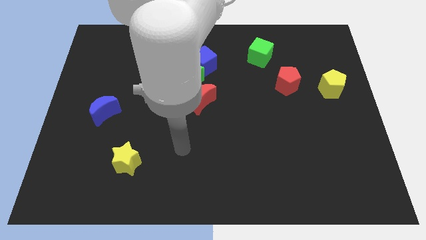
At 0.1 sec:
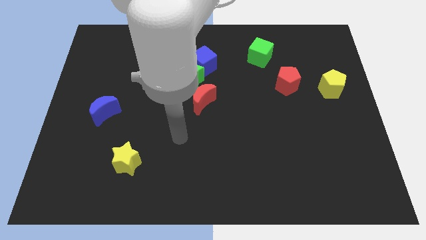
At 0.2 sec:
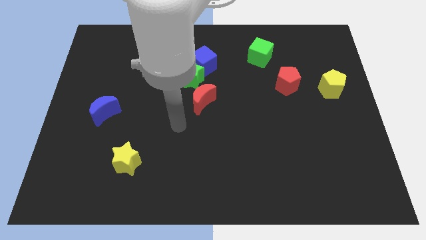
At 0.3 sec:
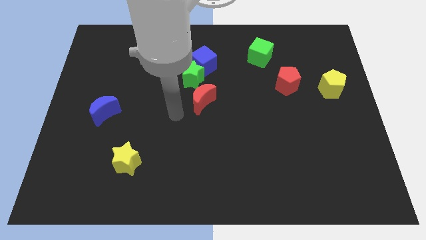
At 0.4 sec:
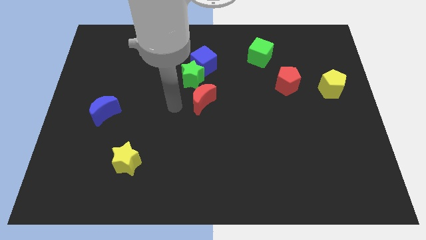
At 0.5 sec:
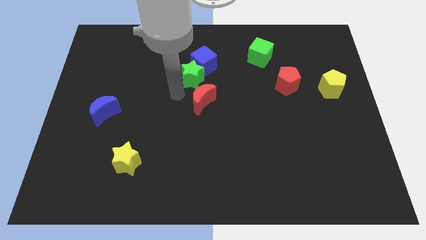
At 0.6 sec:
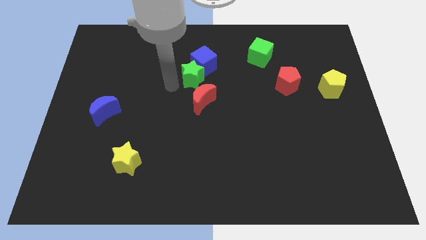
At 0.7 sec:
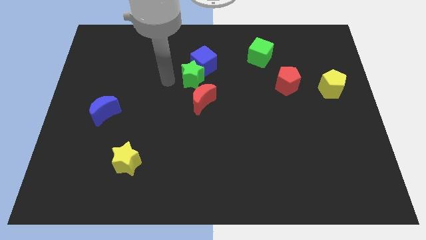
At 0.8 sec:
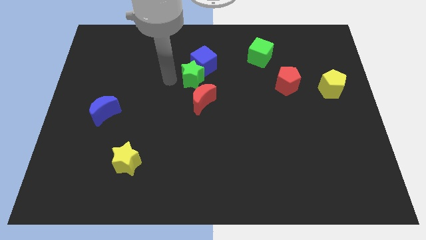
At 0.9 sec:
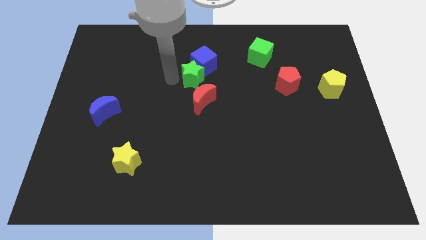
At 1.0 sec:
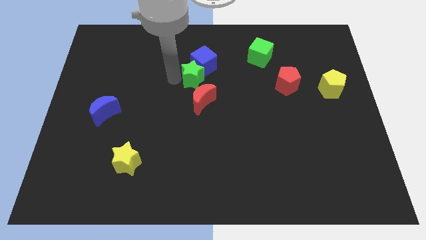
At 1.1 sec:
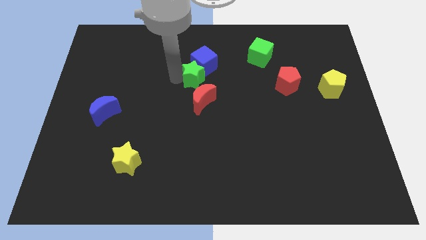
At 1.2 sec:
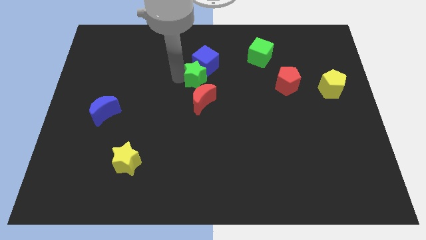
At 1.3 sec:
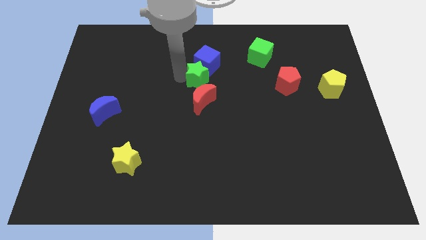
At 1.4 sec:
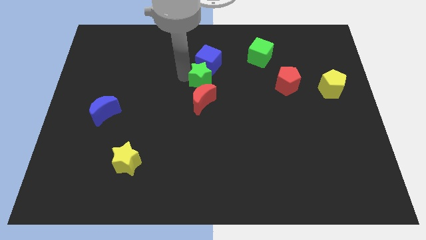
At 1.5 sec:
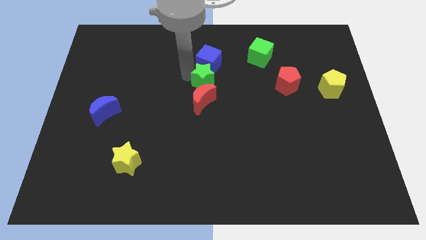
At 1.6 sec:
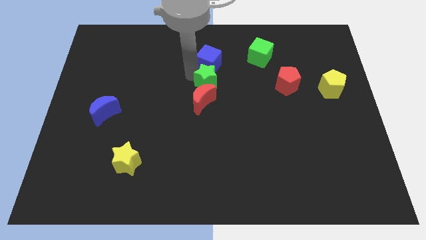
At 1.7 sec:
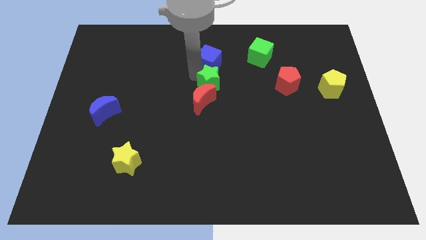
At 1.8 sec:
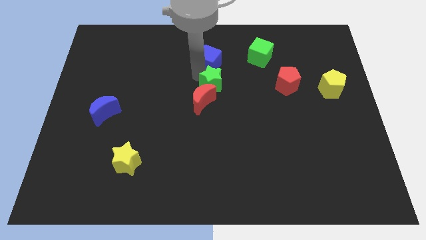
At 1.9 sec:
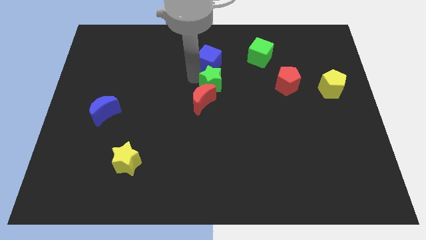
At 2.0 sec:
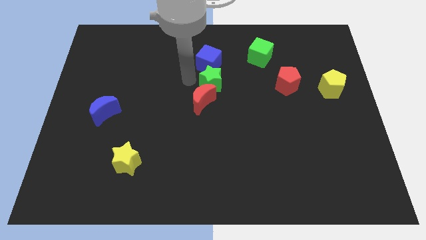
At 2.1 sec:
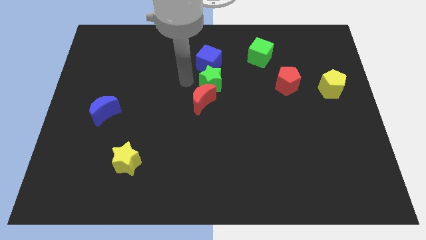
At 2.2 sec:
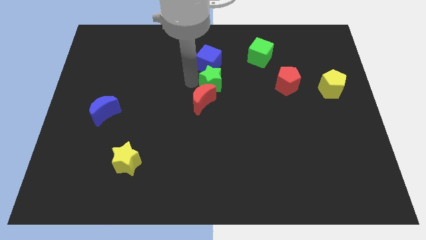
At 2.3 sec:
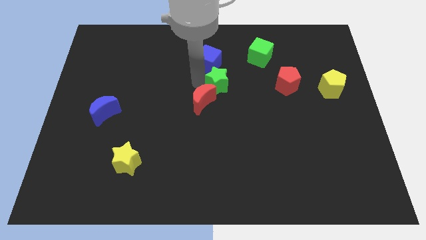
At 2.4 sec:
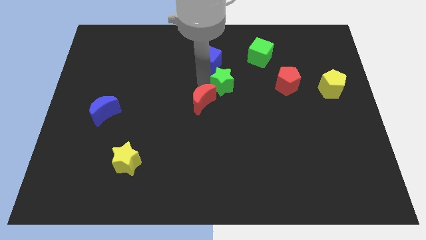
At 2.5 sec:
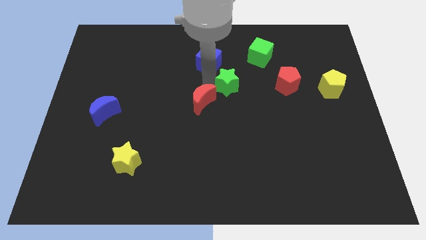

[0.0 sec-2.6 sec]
slightly push the green star downwards and then right

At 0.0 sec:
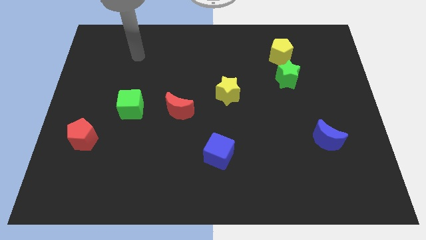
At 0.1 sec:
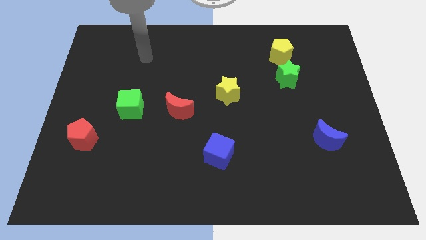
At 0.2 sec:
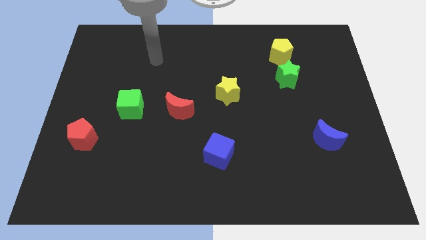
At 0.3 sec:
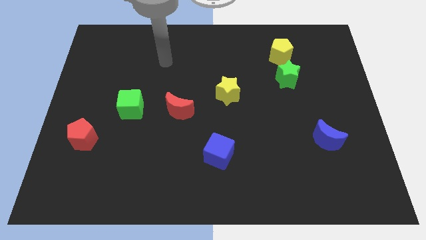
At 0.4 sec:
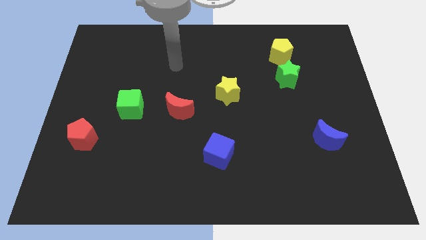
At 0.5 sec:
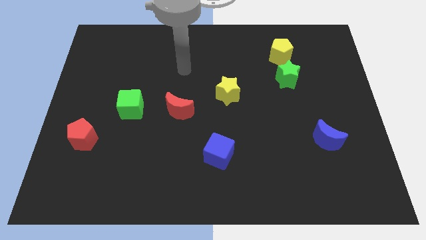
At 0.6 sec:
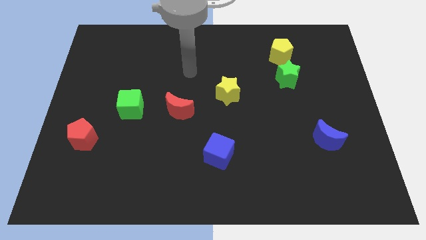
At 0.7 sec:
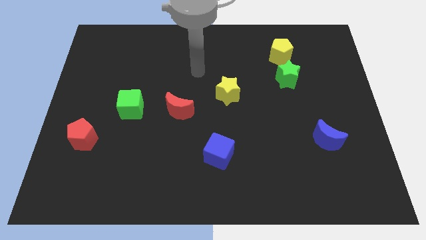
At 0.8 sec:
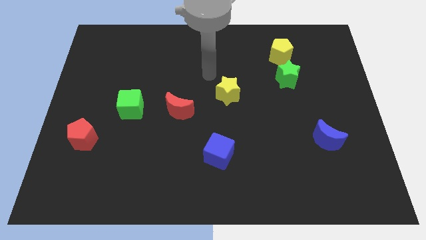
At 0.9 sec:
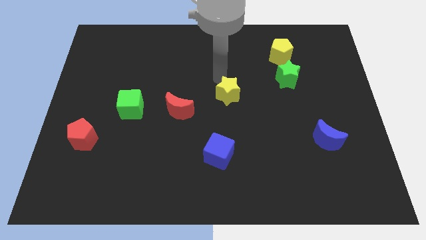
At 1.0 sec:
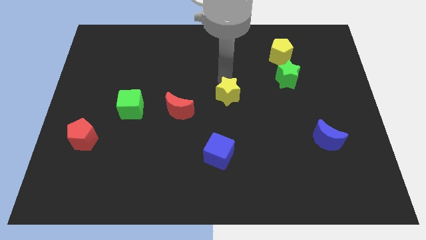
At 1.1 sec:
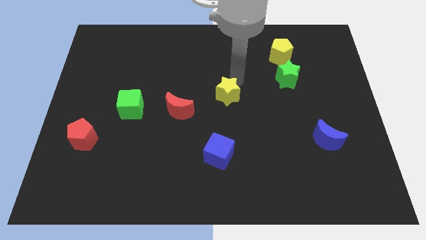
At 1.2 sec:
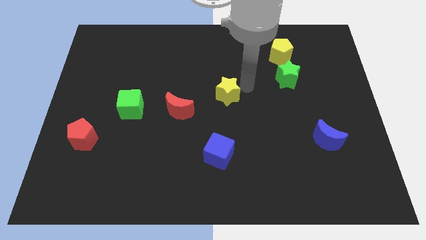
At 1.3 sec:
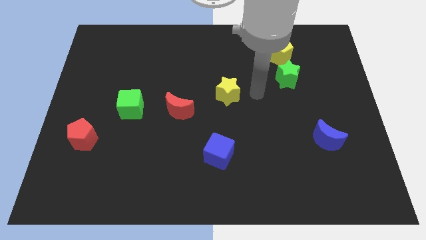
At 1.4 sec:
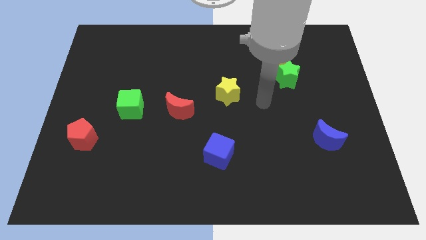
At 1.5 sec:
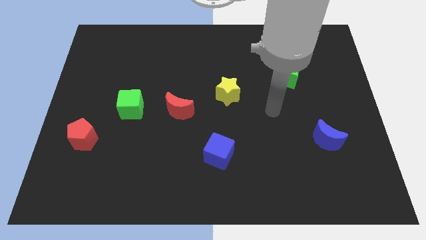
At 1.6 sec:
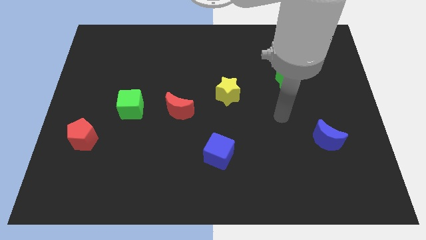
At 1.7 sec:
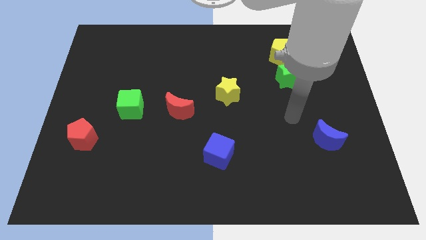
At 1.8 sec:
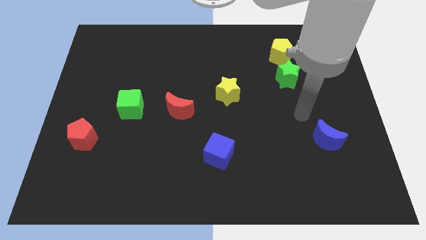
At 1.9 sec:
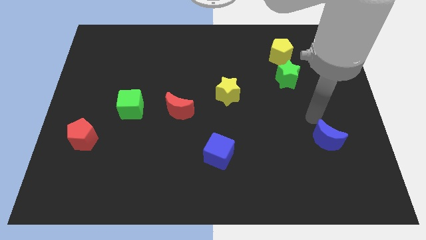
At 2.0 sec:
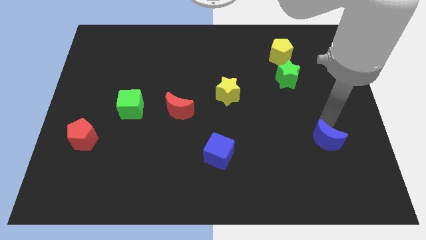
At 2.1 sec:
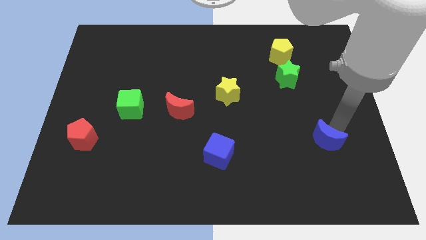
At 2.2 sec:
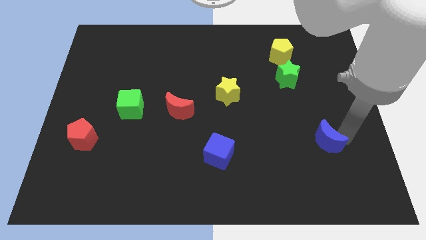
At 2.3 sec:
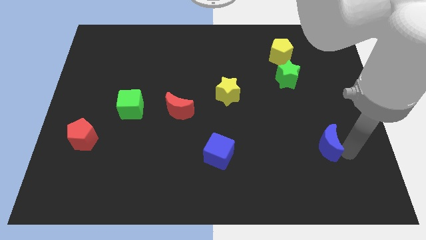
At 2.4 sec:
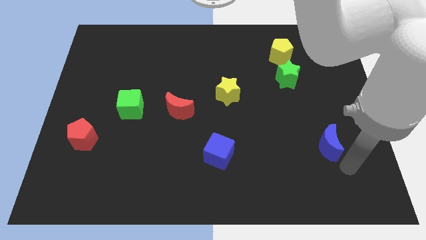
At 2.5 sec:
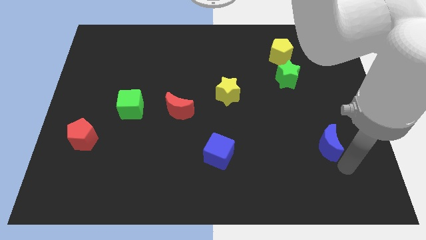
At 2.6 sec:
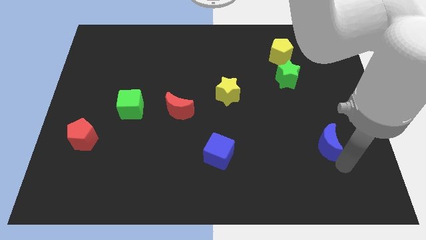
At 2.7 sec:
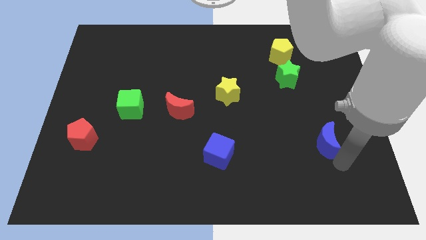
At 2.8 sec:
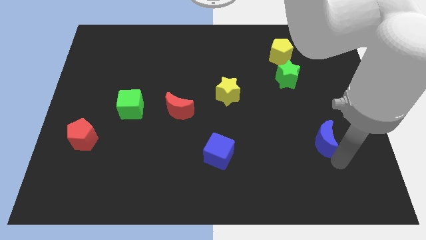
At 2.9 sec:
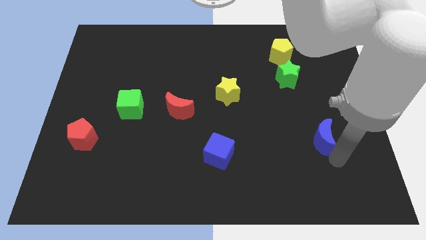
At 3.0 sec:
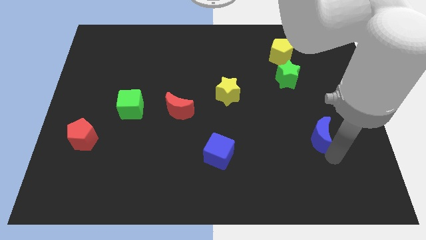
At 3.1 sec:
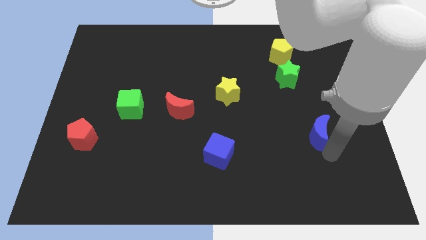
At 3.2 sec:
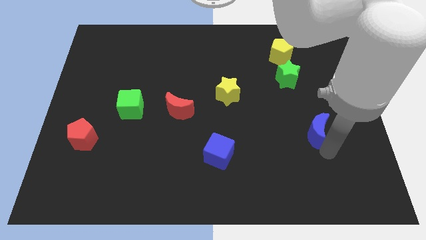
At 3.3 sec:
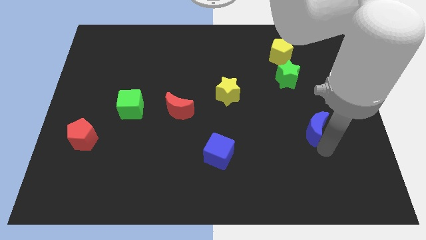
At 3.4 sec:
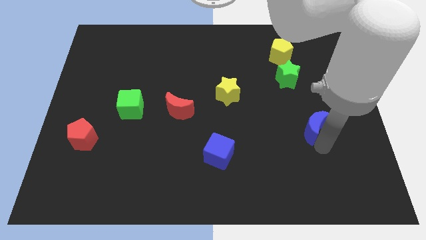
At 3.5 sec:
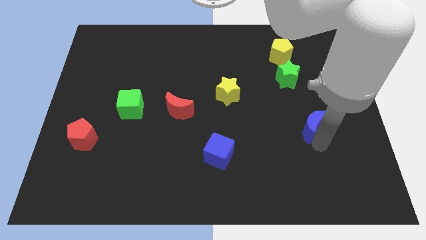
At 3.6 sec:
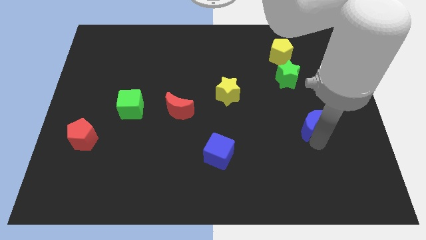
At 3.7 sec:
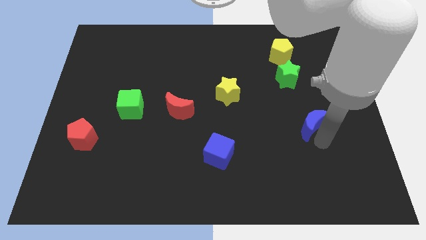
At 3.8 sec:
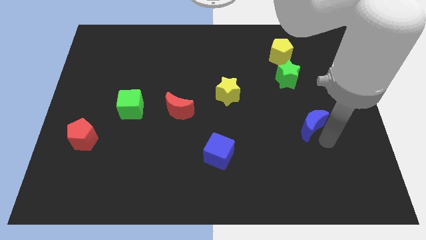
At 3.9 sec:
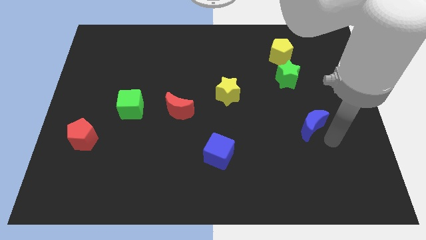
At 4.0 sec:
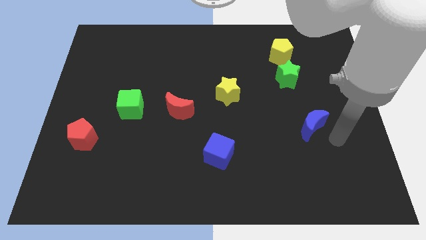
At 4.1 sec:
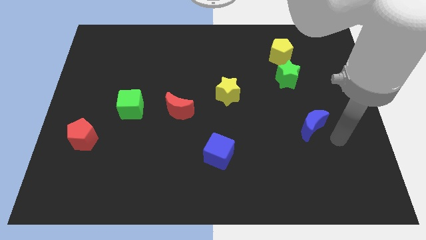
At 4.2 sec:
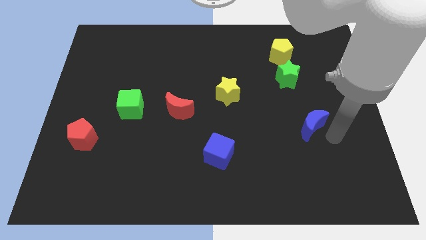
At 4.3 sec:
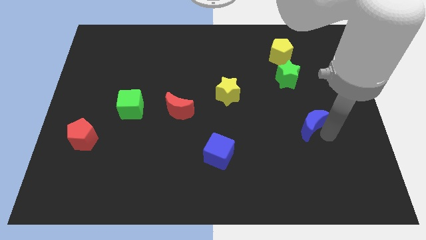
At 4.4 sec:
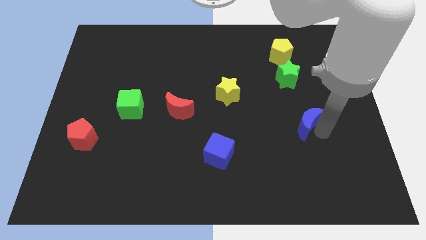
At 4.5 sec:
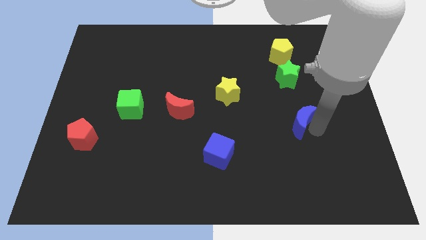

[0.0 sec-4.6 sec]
move the blue moon somewhat diagonally upwards and to the left

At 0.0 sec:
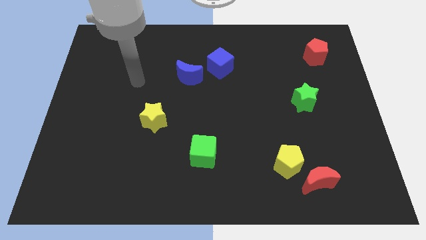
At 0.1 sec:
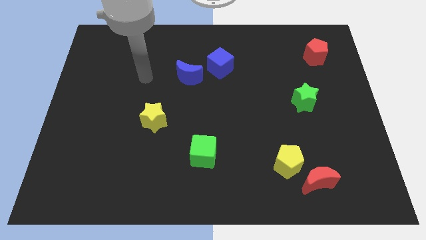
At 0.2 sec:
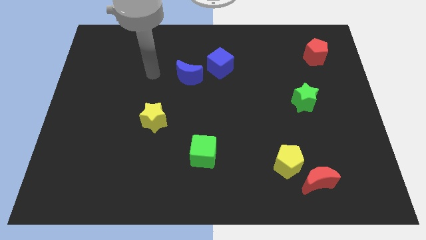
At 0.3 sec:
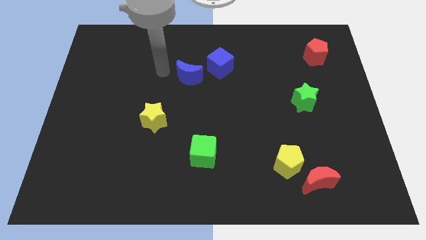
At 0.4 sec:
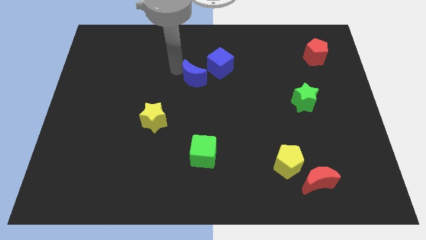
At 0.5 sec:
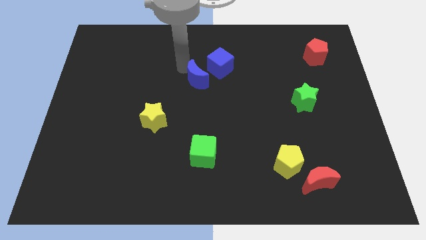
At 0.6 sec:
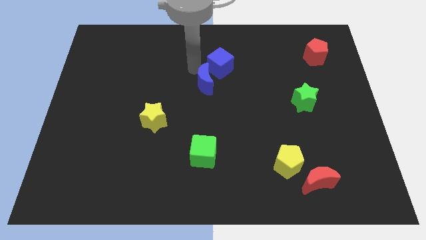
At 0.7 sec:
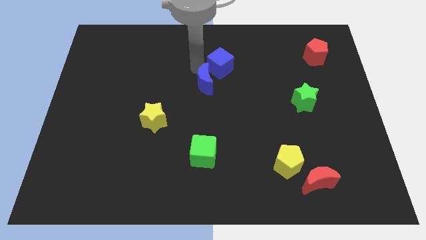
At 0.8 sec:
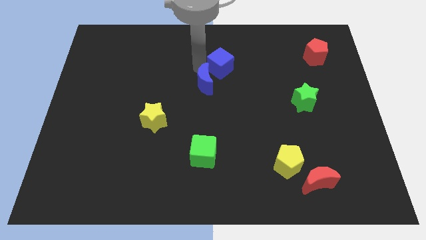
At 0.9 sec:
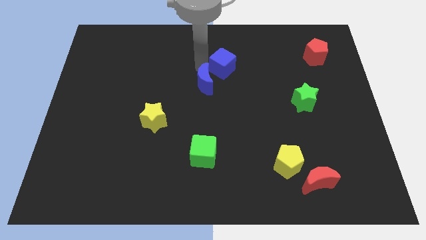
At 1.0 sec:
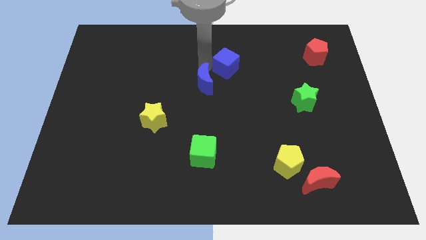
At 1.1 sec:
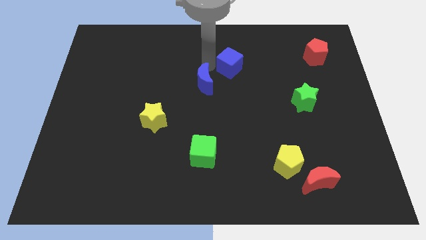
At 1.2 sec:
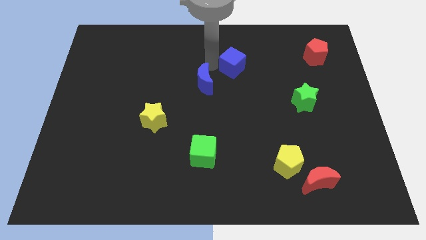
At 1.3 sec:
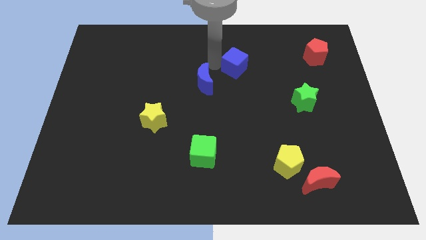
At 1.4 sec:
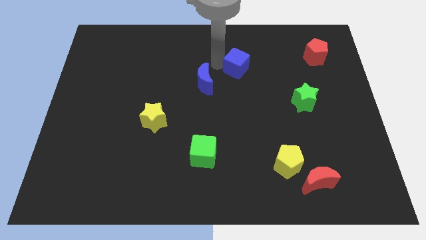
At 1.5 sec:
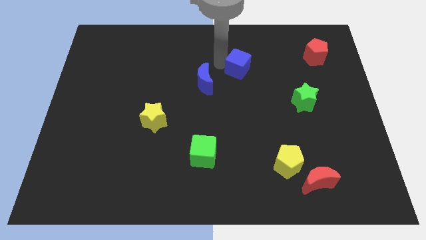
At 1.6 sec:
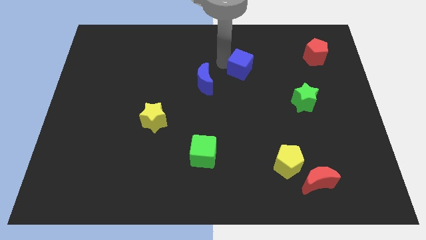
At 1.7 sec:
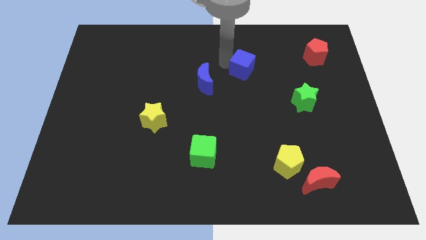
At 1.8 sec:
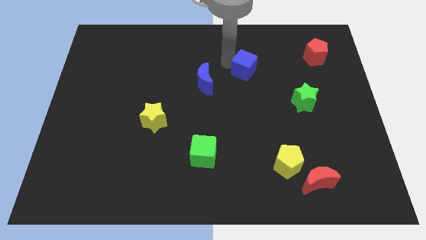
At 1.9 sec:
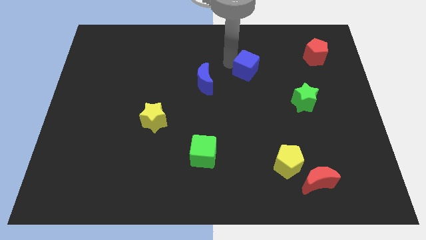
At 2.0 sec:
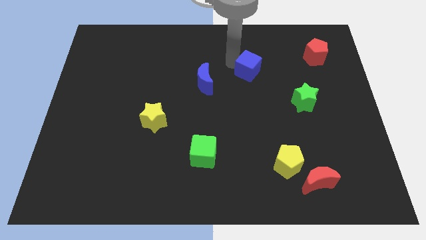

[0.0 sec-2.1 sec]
push the blue cube to the right slightly
